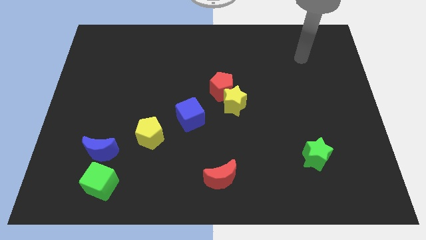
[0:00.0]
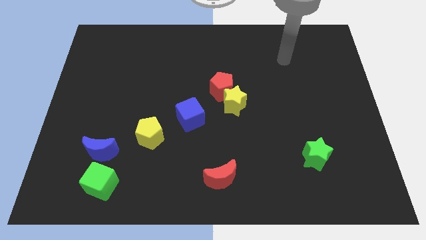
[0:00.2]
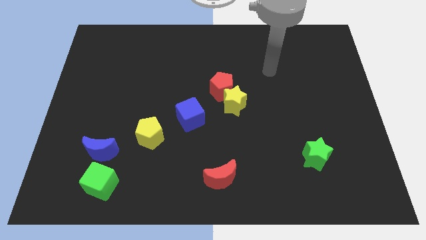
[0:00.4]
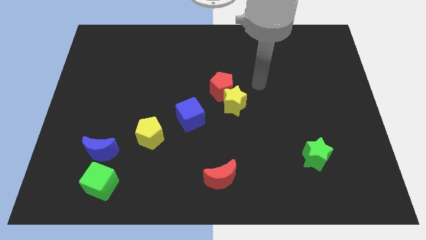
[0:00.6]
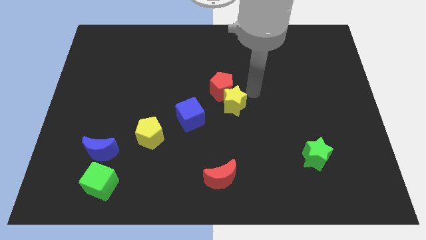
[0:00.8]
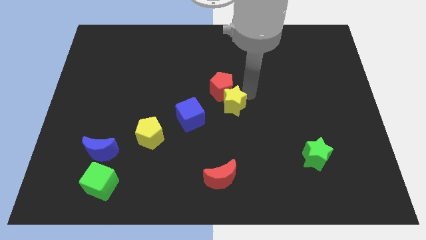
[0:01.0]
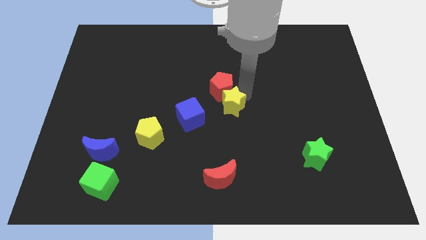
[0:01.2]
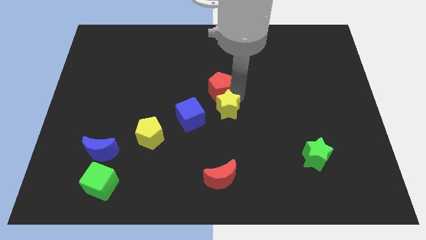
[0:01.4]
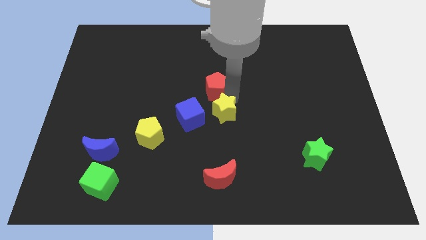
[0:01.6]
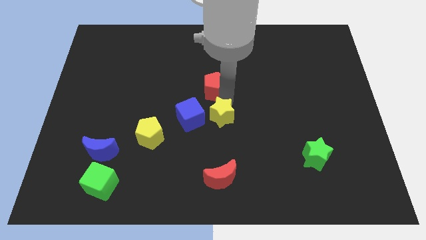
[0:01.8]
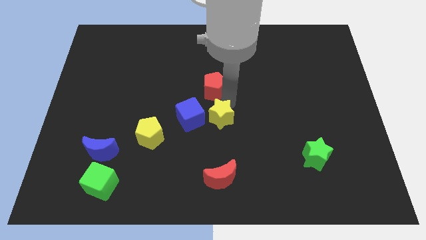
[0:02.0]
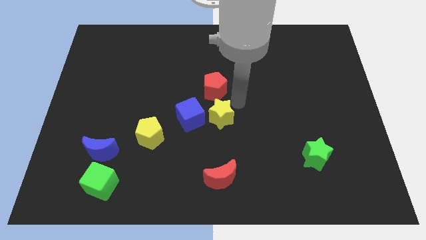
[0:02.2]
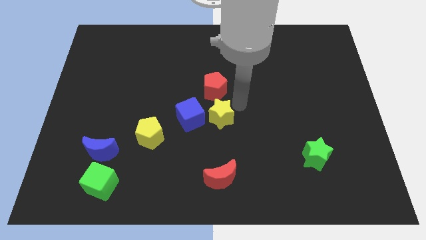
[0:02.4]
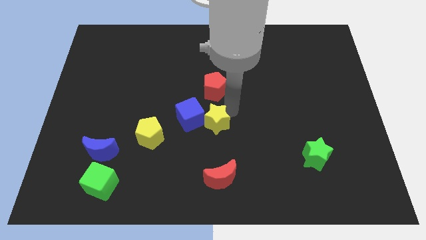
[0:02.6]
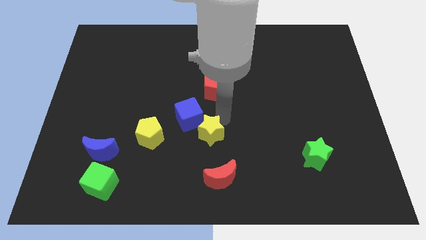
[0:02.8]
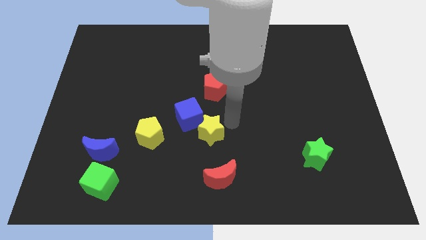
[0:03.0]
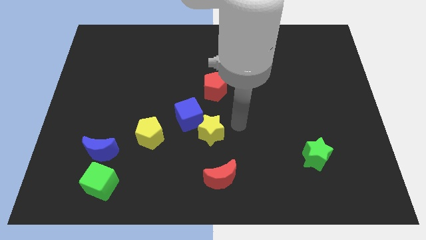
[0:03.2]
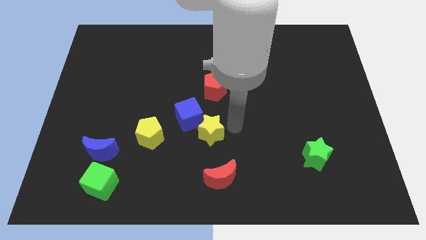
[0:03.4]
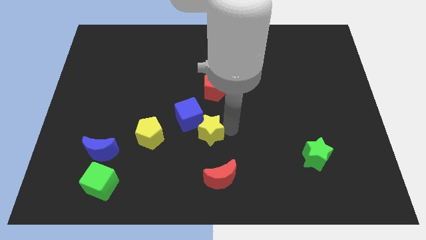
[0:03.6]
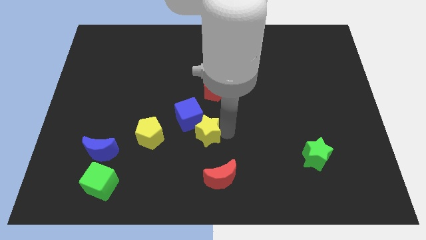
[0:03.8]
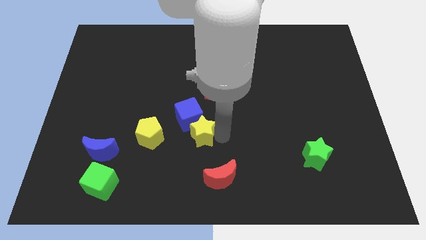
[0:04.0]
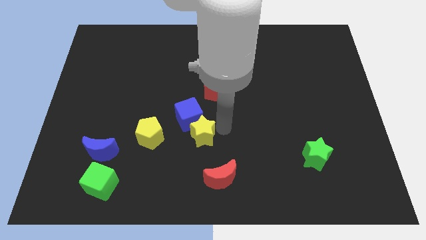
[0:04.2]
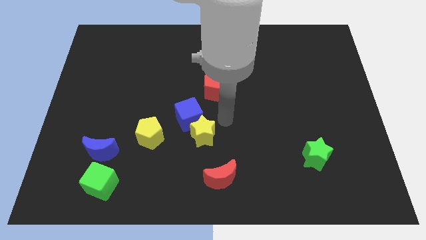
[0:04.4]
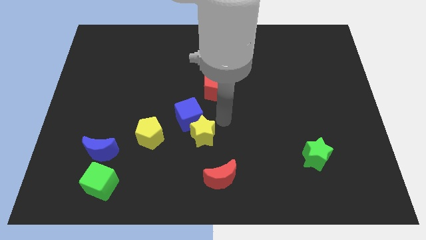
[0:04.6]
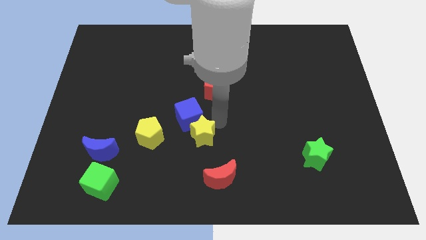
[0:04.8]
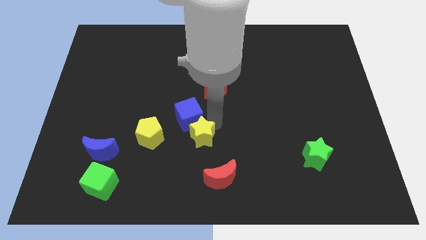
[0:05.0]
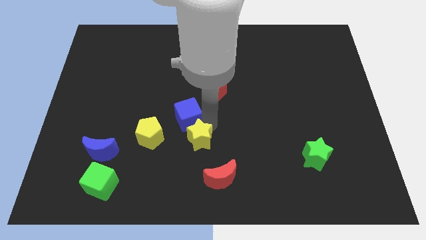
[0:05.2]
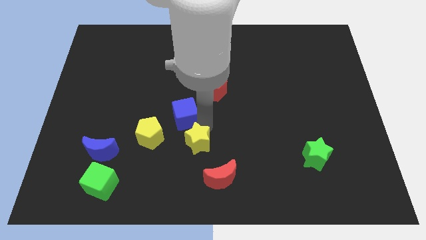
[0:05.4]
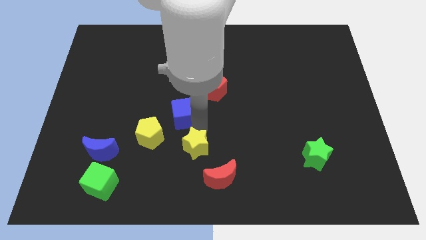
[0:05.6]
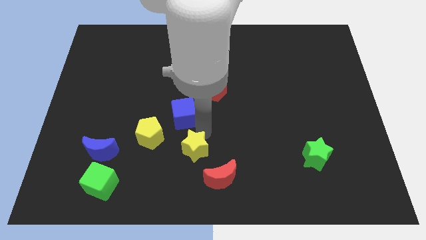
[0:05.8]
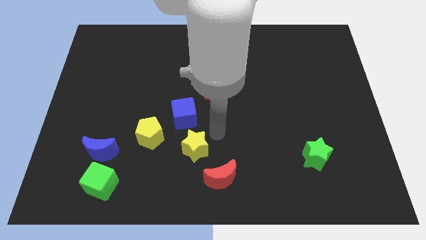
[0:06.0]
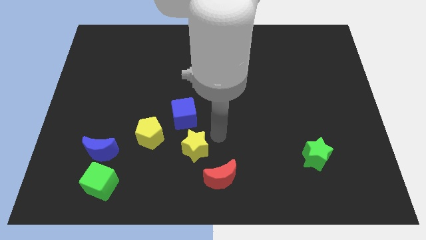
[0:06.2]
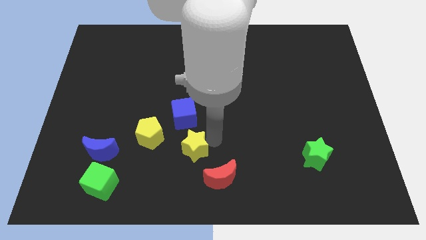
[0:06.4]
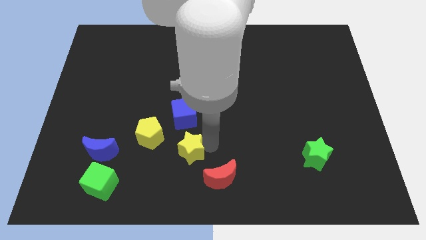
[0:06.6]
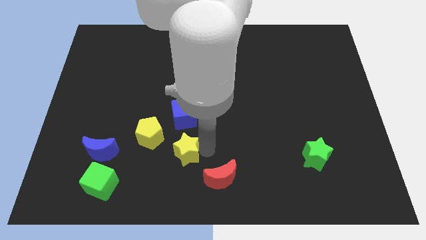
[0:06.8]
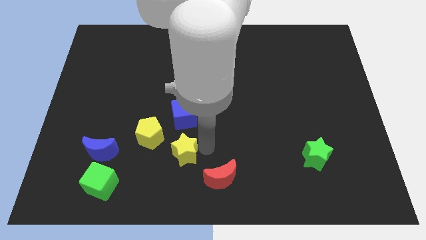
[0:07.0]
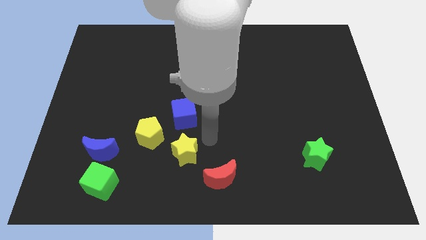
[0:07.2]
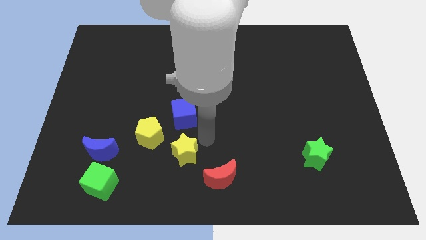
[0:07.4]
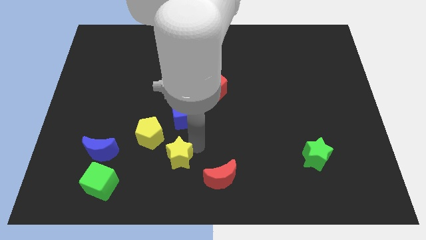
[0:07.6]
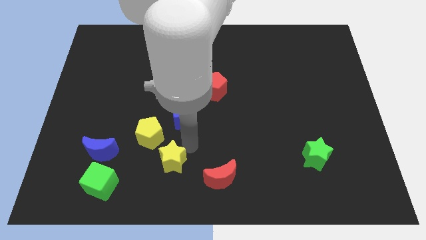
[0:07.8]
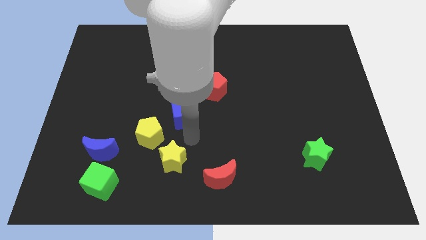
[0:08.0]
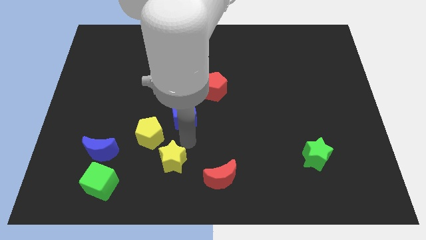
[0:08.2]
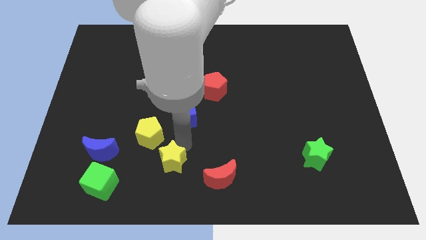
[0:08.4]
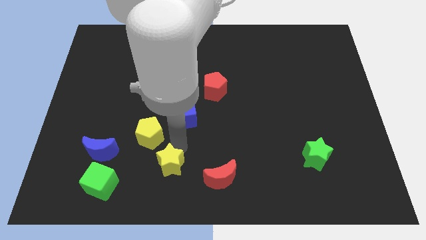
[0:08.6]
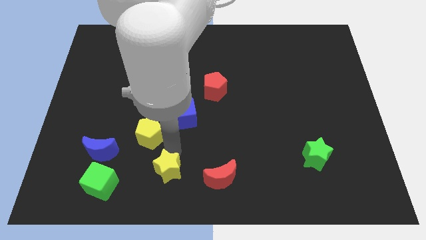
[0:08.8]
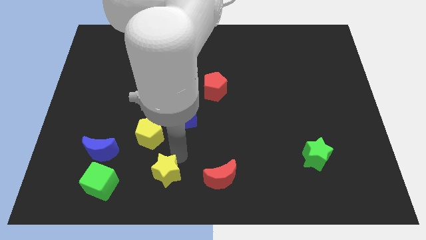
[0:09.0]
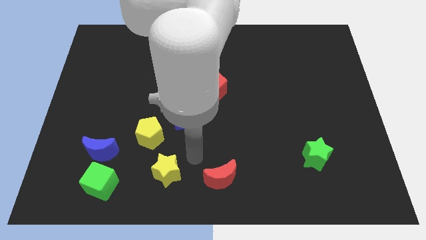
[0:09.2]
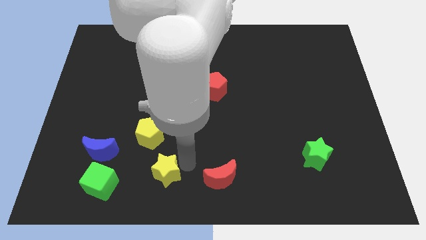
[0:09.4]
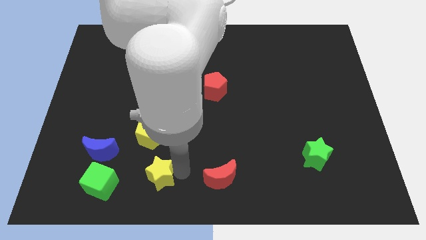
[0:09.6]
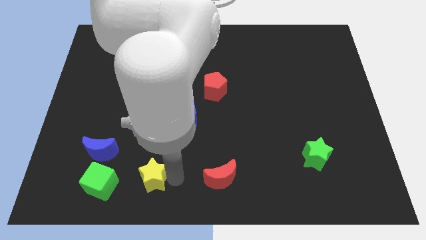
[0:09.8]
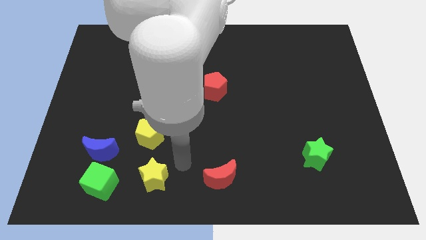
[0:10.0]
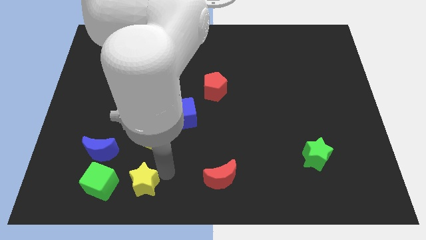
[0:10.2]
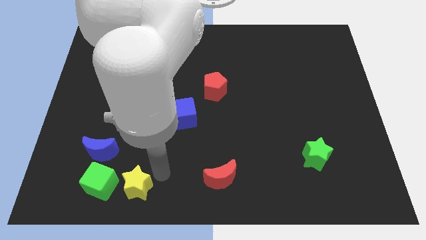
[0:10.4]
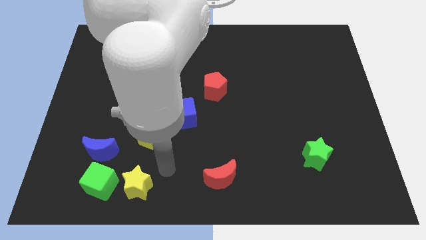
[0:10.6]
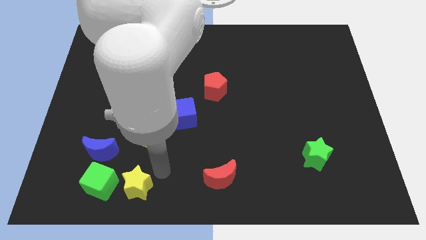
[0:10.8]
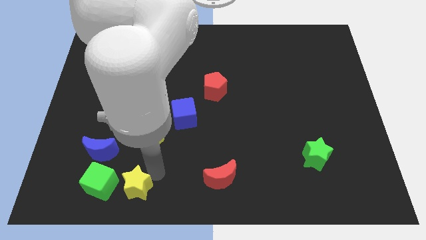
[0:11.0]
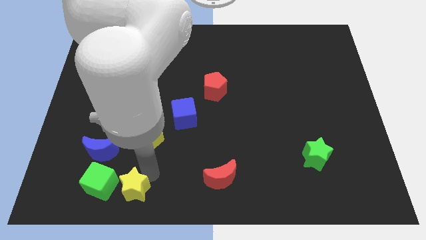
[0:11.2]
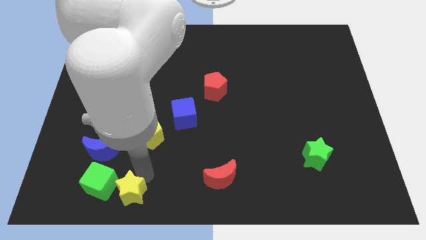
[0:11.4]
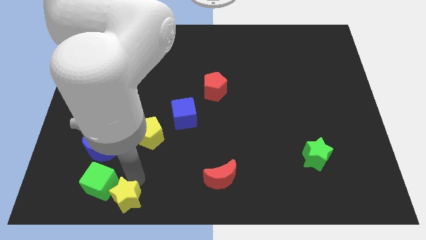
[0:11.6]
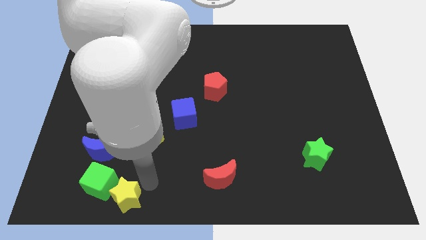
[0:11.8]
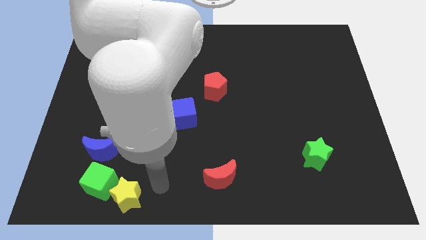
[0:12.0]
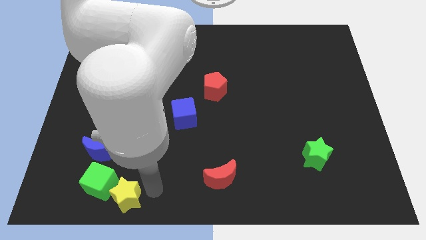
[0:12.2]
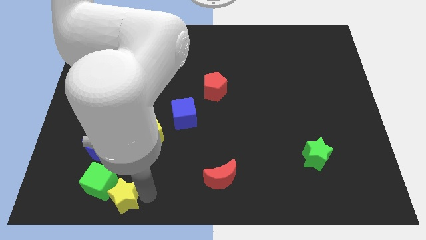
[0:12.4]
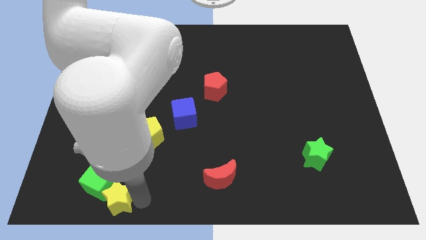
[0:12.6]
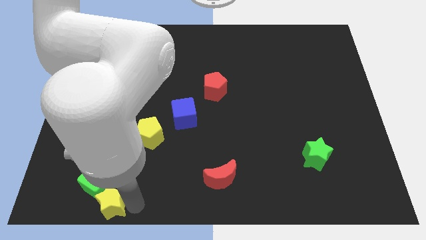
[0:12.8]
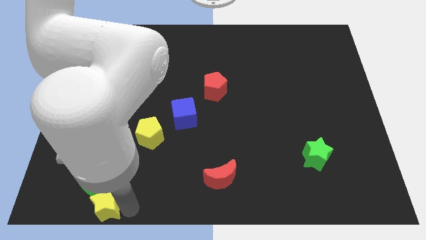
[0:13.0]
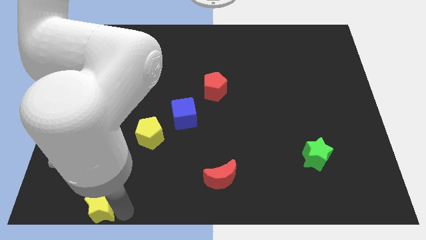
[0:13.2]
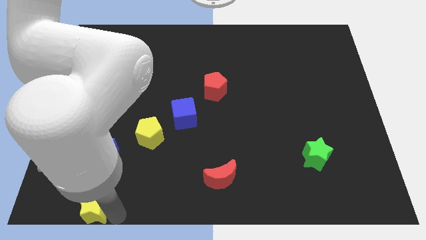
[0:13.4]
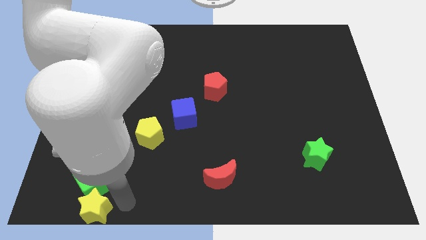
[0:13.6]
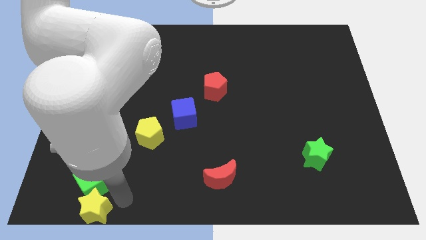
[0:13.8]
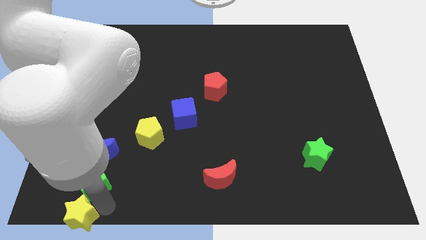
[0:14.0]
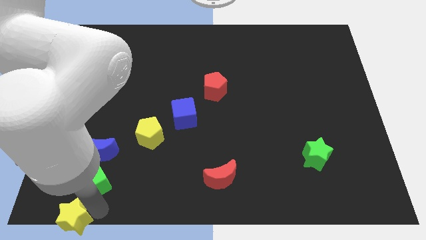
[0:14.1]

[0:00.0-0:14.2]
push the yellow star to the lower left corner

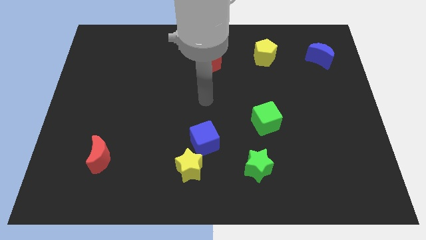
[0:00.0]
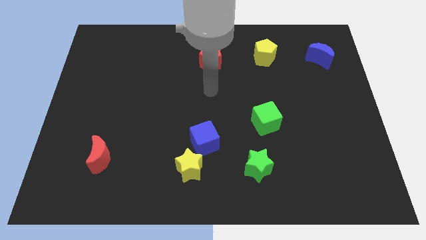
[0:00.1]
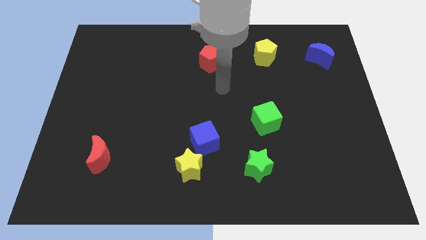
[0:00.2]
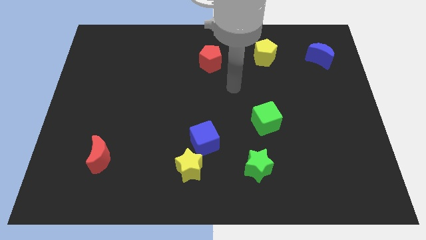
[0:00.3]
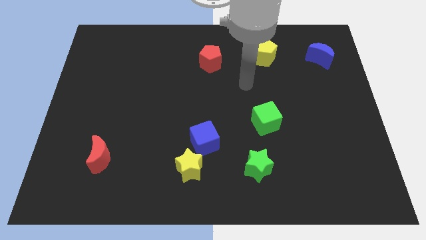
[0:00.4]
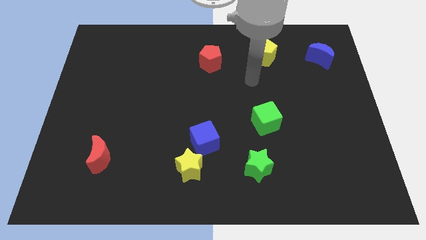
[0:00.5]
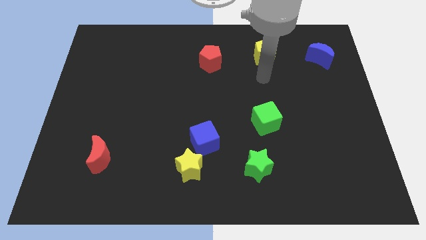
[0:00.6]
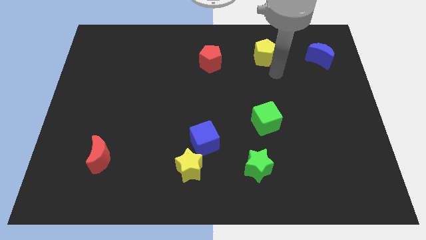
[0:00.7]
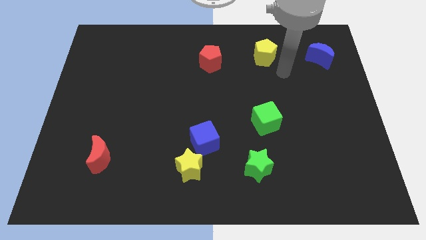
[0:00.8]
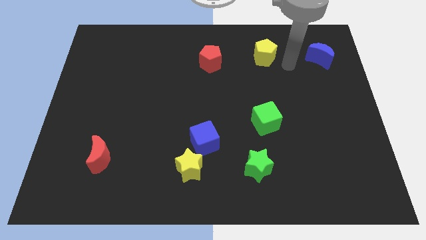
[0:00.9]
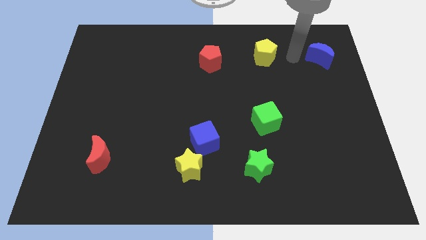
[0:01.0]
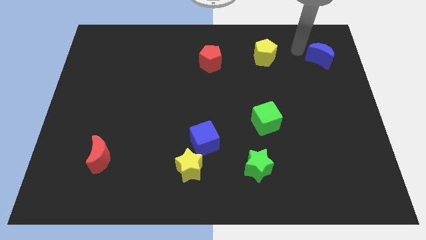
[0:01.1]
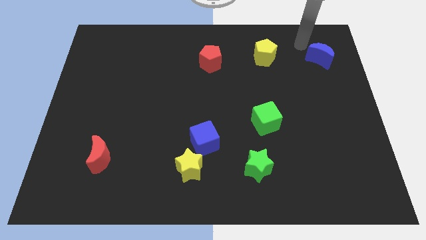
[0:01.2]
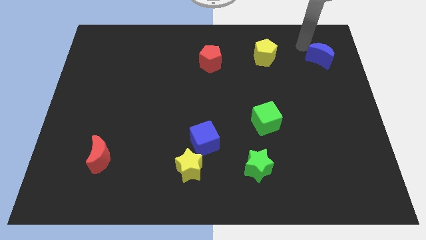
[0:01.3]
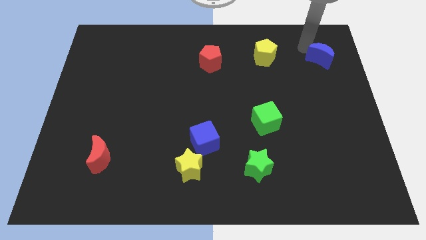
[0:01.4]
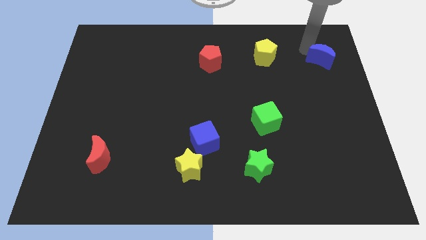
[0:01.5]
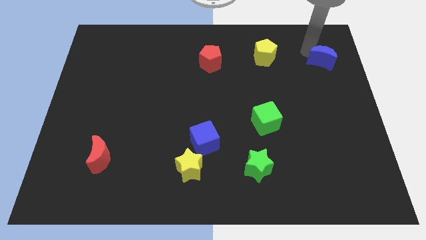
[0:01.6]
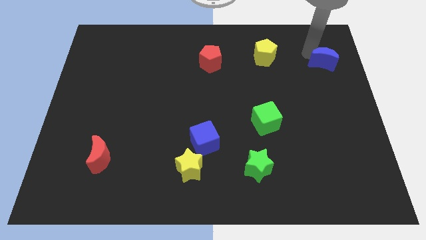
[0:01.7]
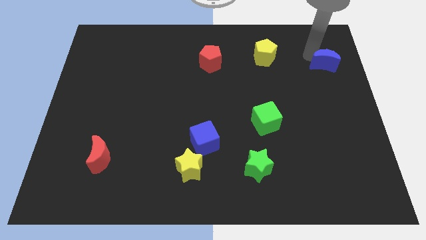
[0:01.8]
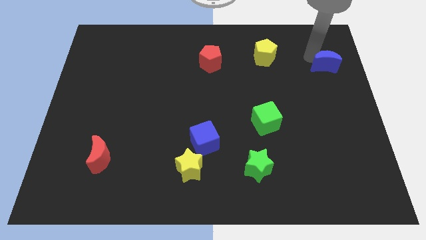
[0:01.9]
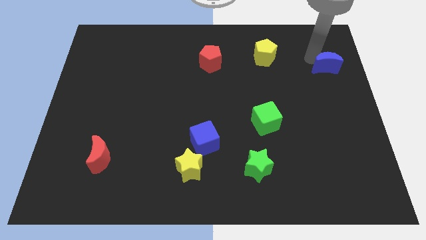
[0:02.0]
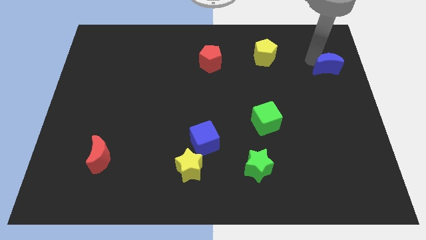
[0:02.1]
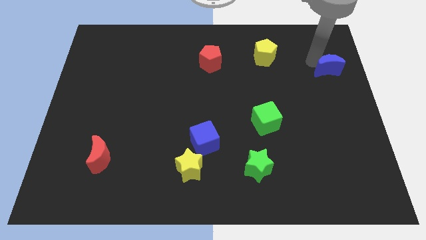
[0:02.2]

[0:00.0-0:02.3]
move the blue moon to the center right
